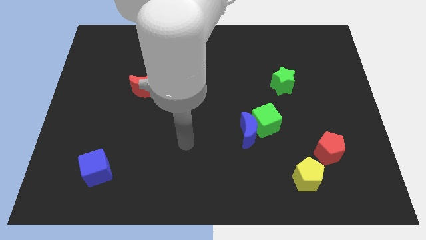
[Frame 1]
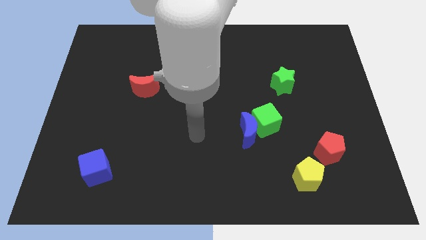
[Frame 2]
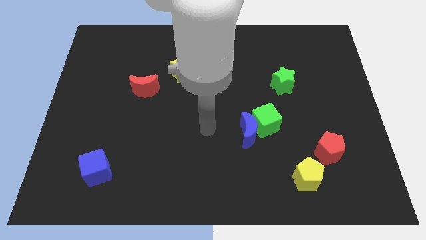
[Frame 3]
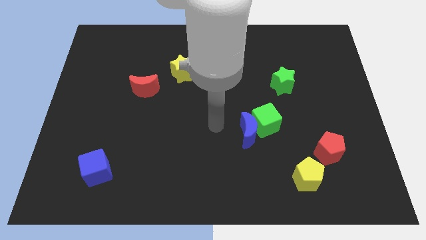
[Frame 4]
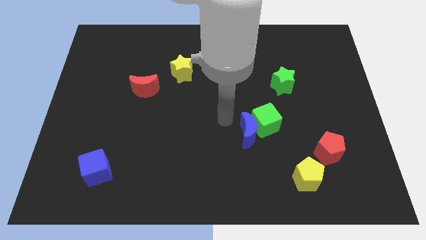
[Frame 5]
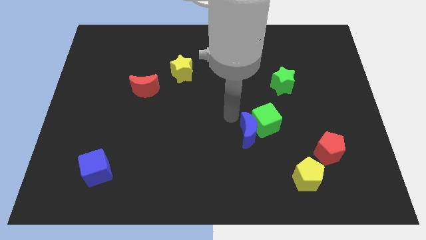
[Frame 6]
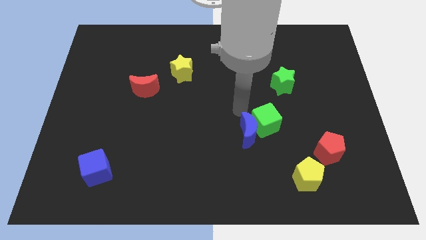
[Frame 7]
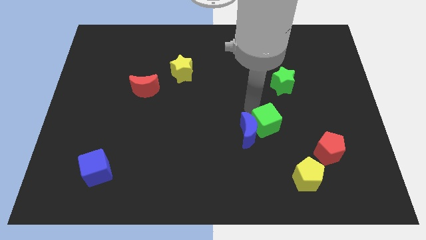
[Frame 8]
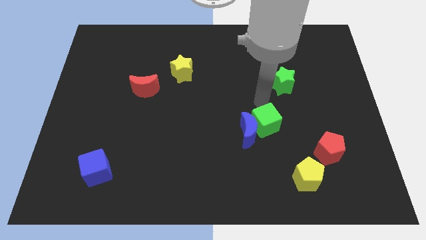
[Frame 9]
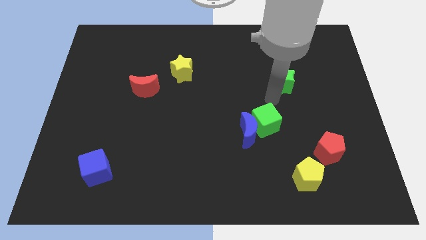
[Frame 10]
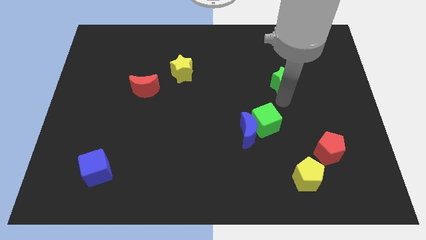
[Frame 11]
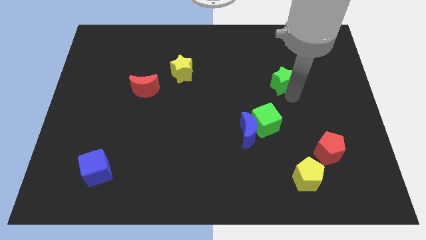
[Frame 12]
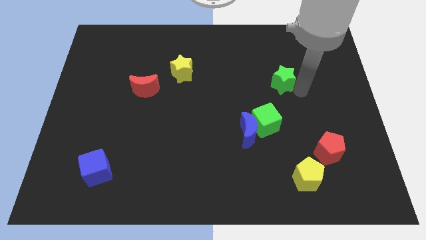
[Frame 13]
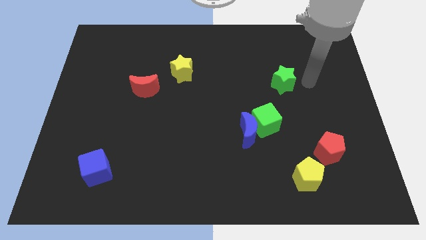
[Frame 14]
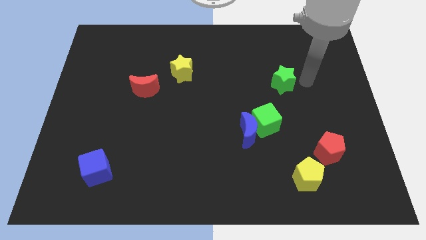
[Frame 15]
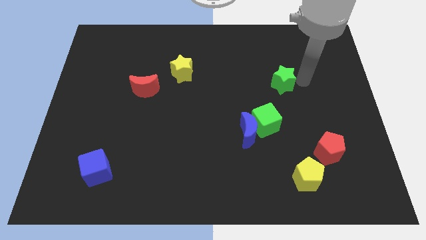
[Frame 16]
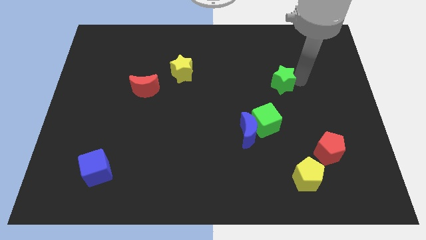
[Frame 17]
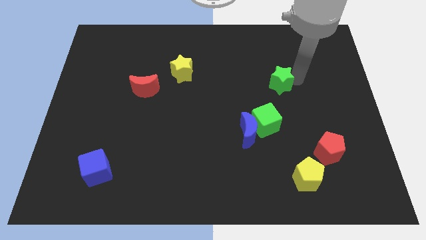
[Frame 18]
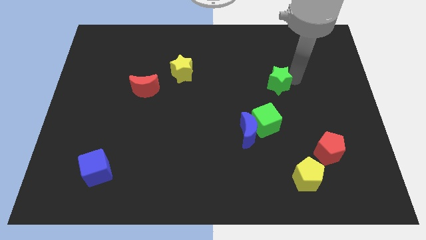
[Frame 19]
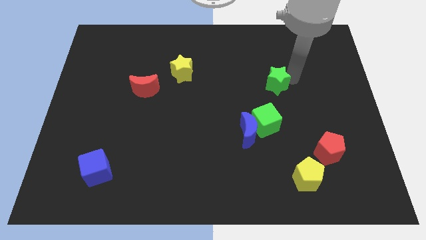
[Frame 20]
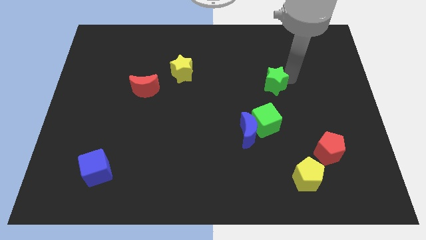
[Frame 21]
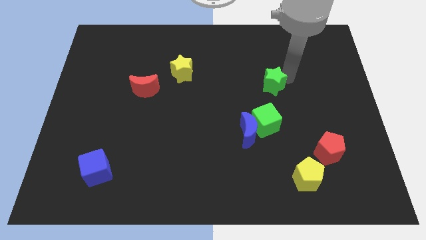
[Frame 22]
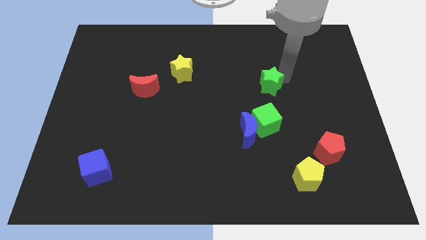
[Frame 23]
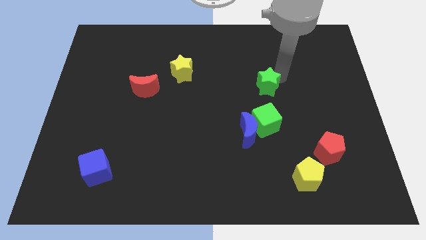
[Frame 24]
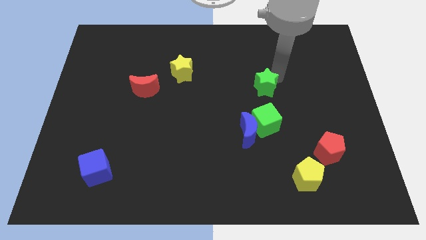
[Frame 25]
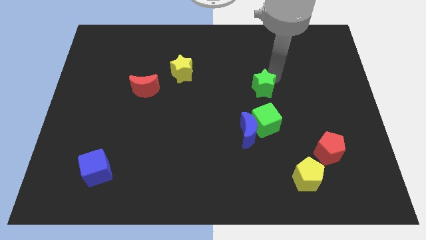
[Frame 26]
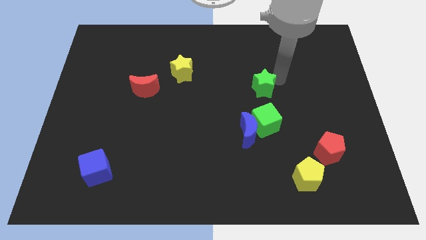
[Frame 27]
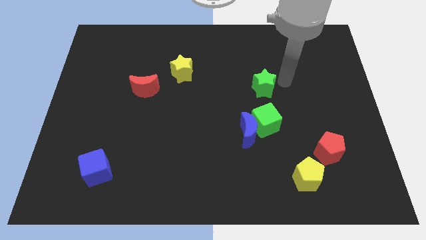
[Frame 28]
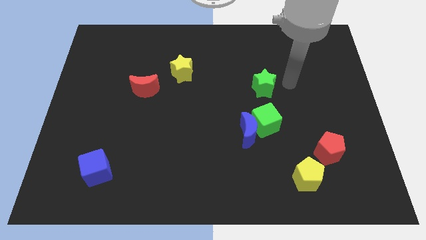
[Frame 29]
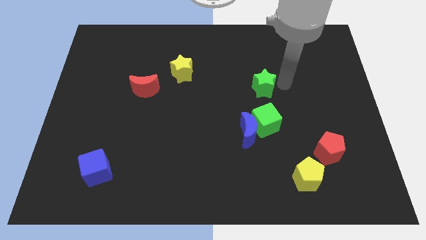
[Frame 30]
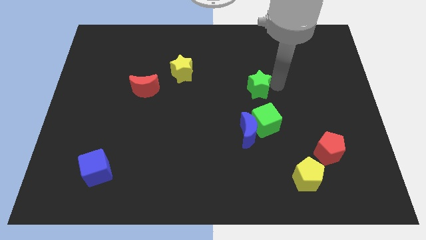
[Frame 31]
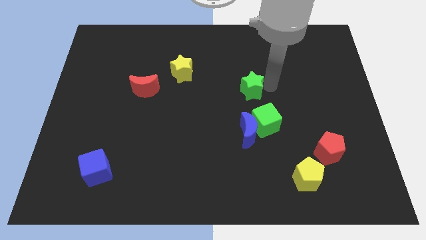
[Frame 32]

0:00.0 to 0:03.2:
slightly push the green star left

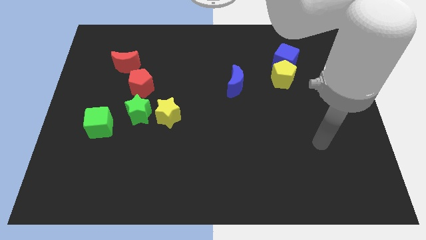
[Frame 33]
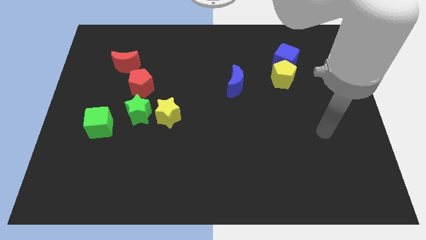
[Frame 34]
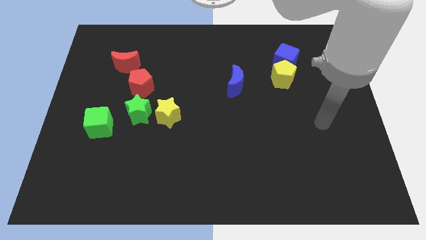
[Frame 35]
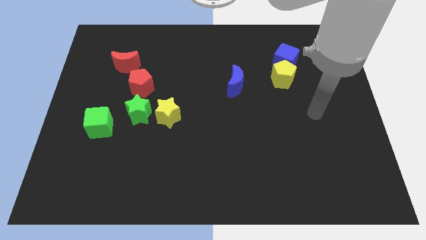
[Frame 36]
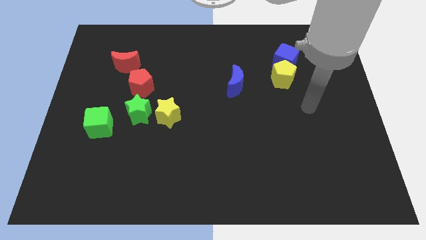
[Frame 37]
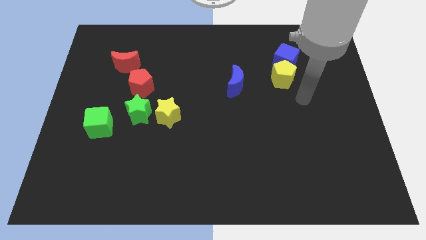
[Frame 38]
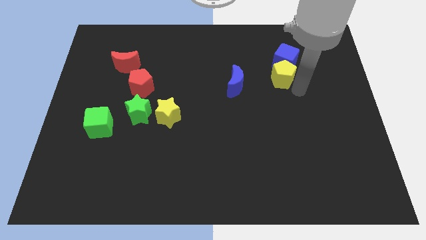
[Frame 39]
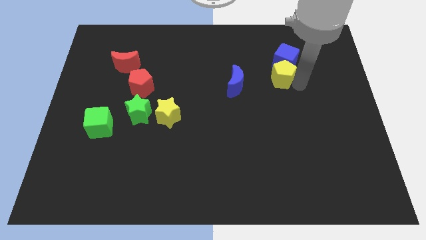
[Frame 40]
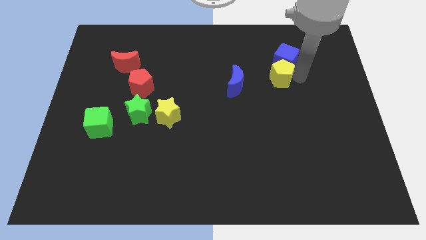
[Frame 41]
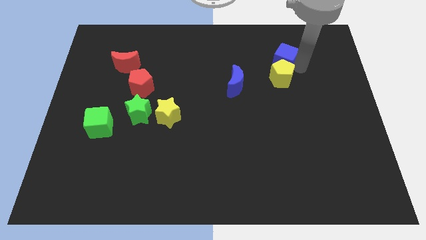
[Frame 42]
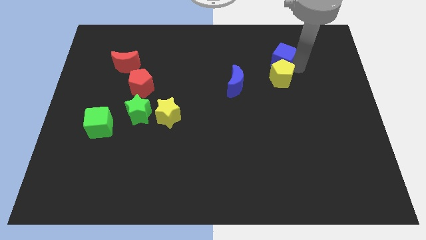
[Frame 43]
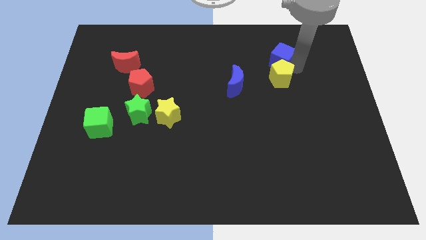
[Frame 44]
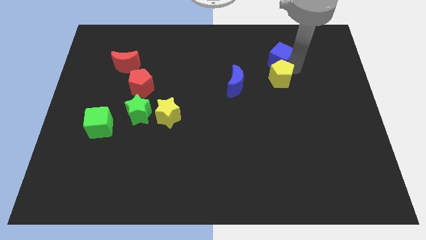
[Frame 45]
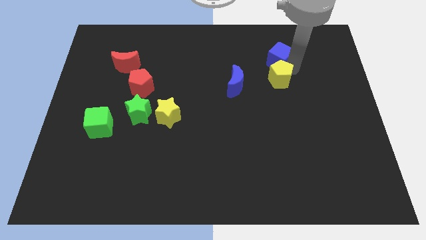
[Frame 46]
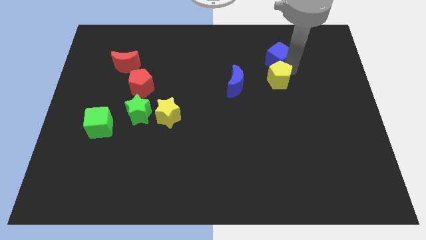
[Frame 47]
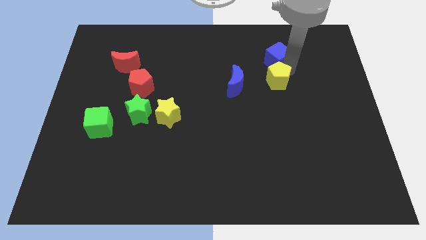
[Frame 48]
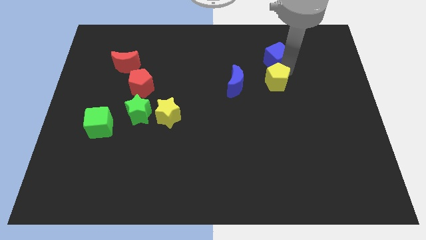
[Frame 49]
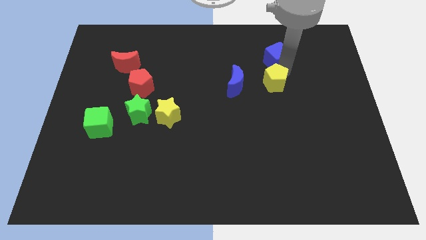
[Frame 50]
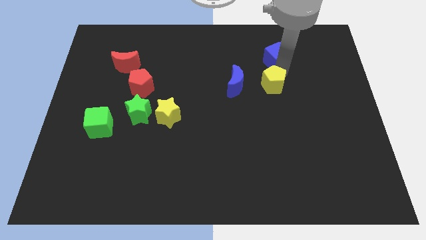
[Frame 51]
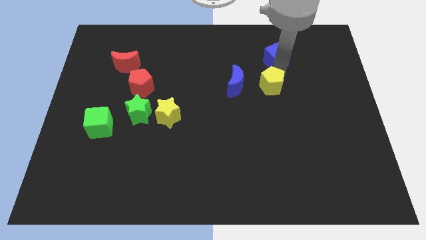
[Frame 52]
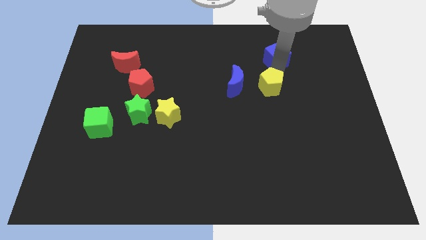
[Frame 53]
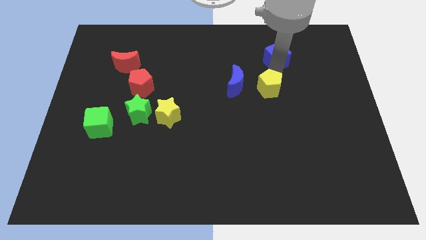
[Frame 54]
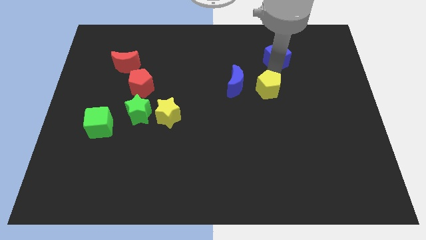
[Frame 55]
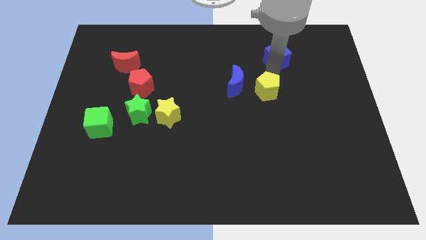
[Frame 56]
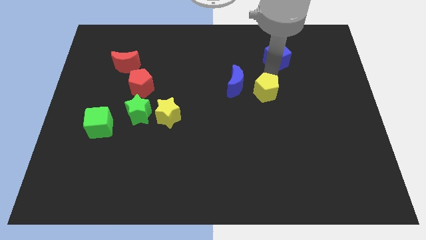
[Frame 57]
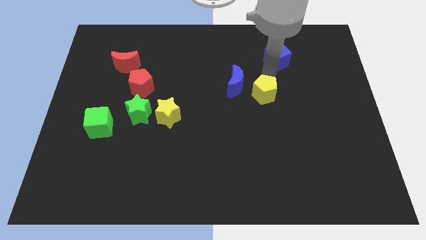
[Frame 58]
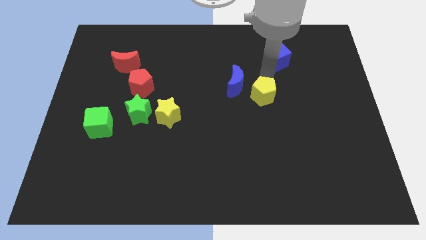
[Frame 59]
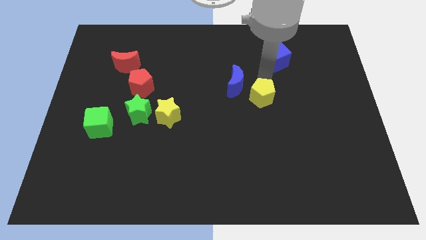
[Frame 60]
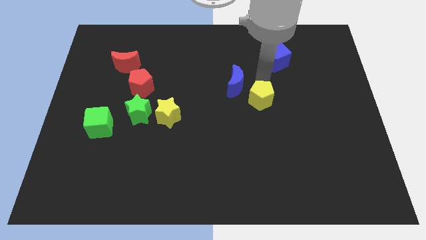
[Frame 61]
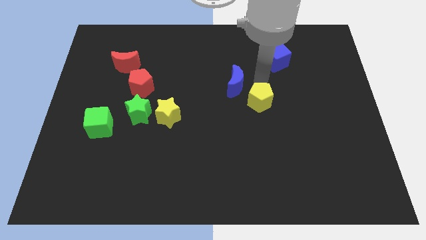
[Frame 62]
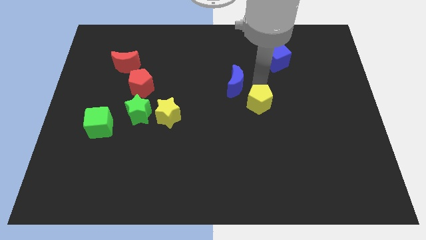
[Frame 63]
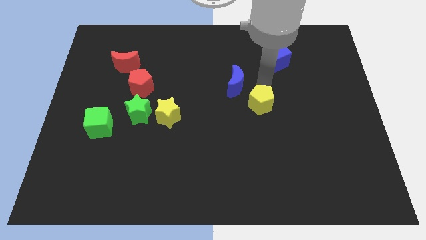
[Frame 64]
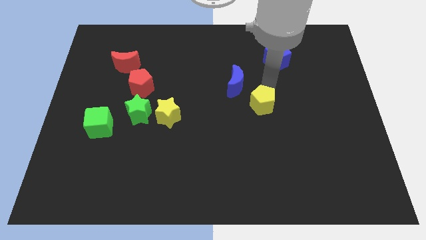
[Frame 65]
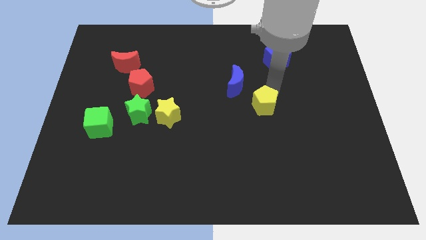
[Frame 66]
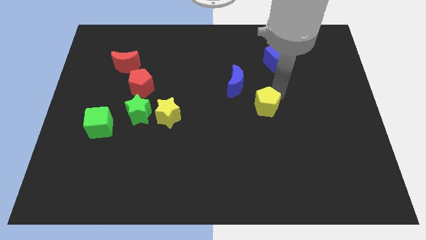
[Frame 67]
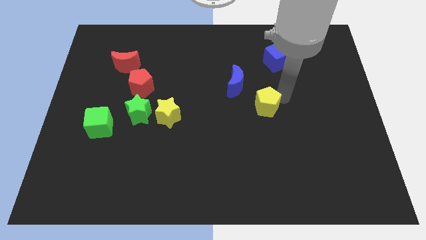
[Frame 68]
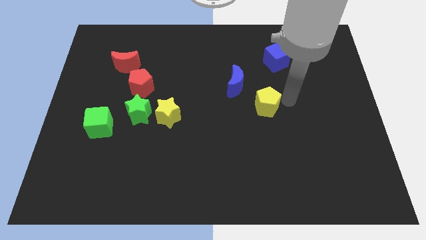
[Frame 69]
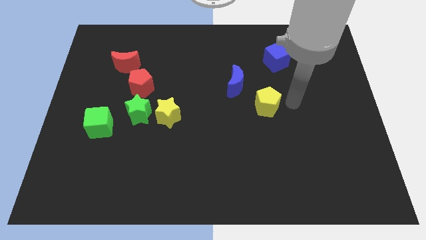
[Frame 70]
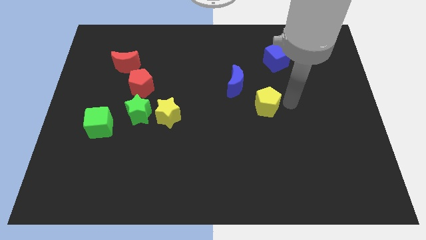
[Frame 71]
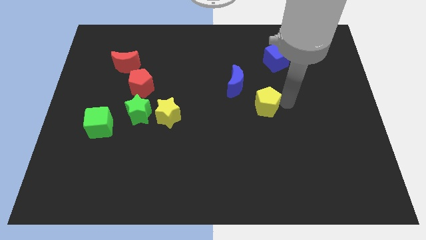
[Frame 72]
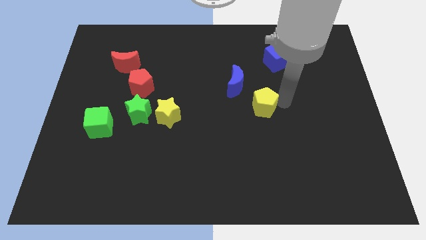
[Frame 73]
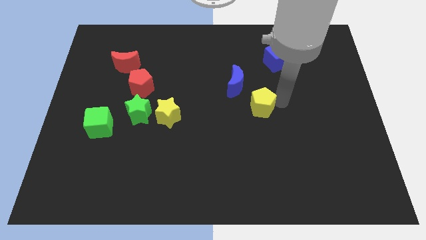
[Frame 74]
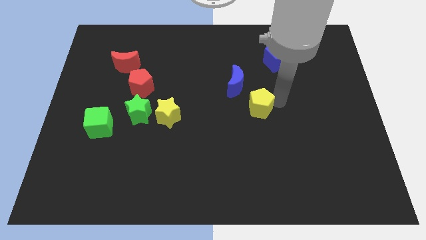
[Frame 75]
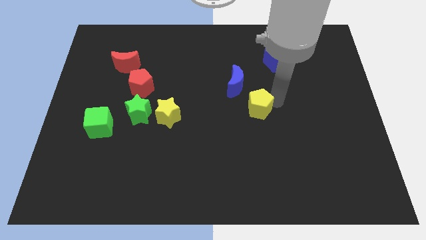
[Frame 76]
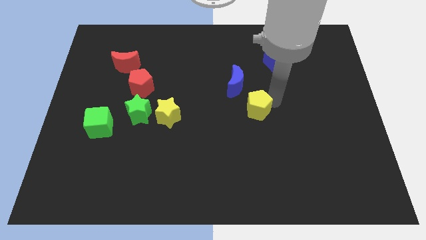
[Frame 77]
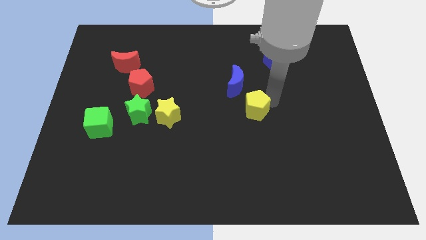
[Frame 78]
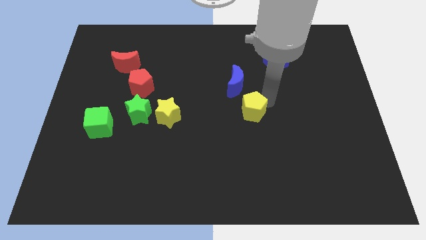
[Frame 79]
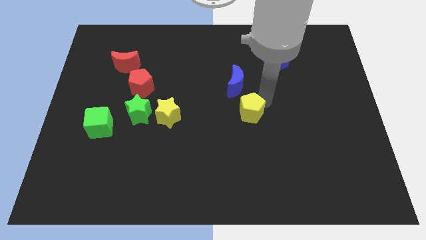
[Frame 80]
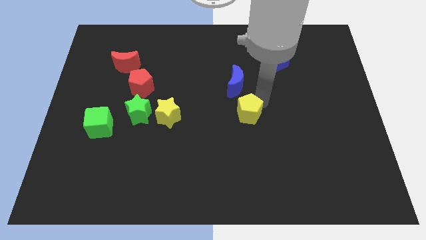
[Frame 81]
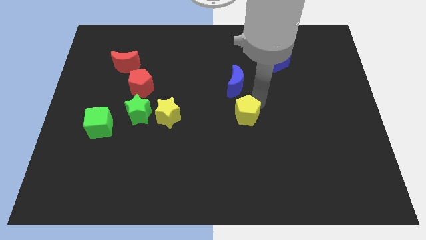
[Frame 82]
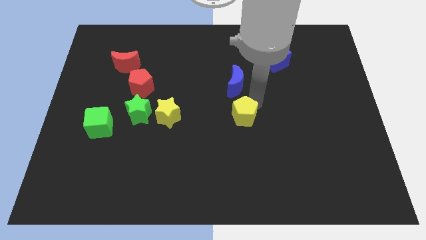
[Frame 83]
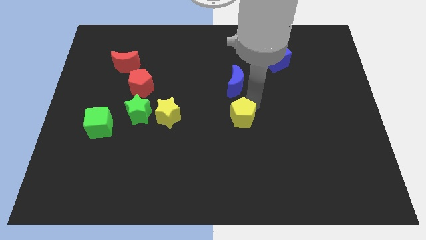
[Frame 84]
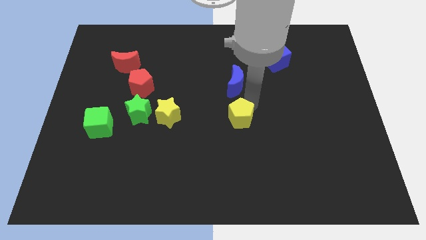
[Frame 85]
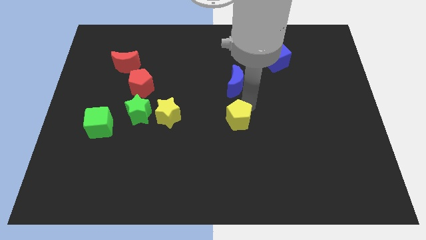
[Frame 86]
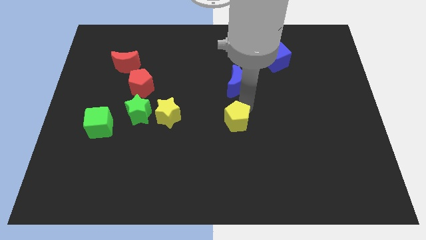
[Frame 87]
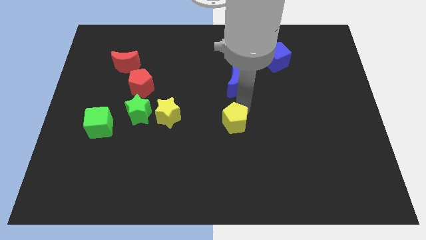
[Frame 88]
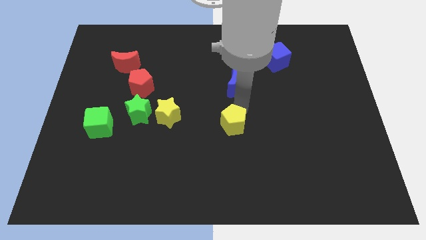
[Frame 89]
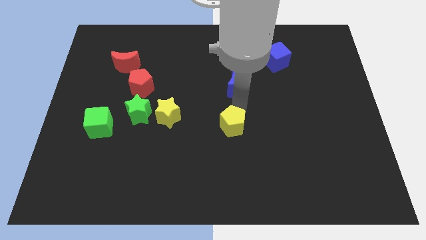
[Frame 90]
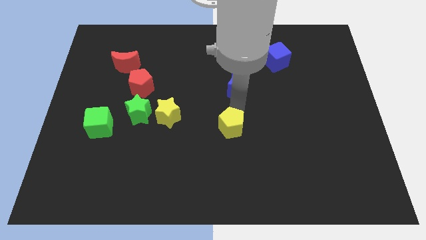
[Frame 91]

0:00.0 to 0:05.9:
move the yellow pentagon downwards and then to the left
